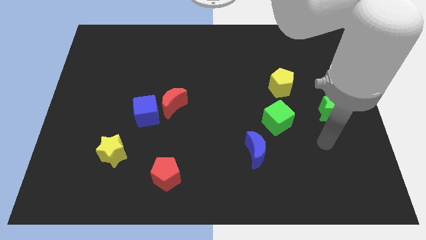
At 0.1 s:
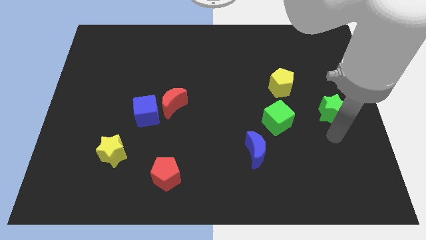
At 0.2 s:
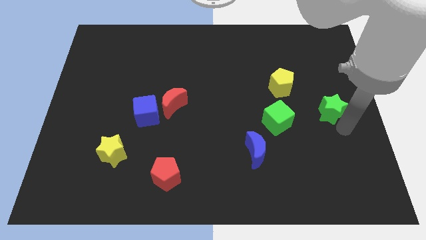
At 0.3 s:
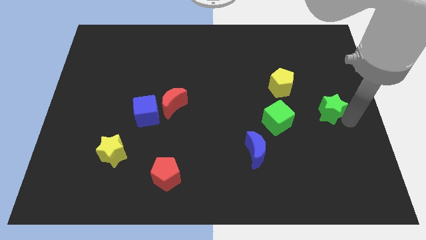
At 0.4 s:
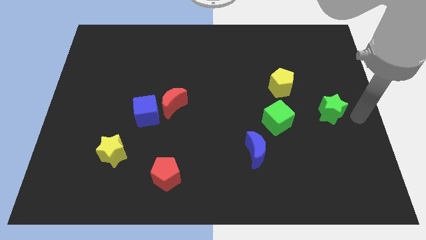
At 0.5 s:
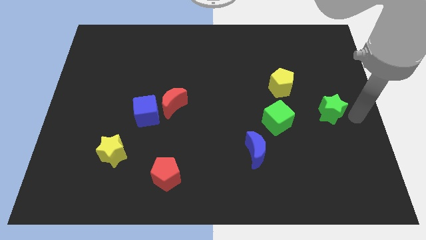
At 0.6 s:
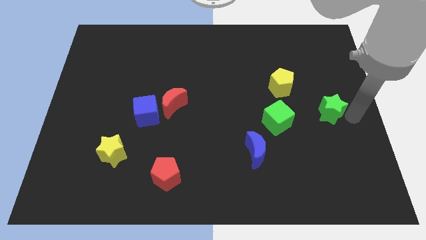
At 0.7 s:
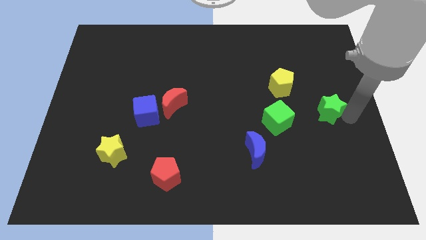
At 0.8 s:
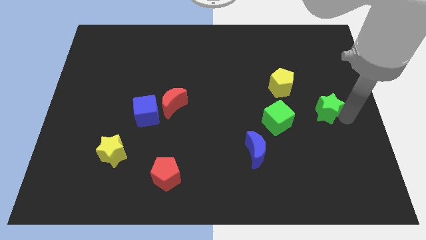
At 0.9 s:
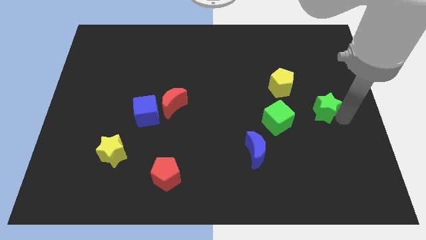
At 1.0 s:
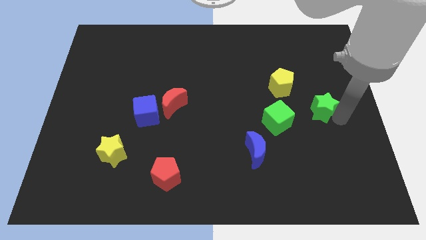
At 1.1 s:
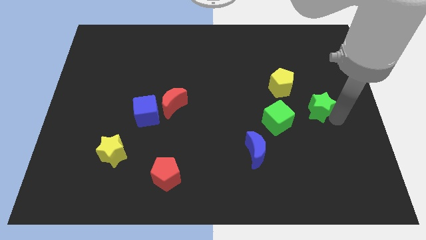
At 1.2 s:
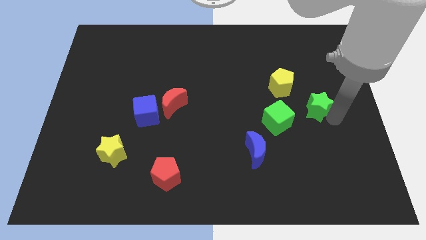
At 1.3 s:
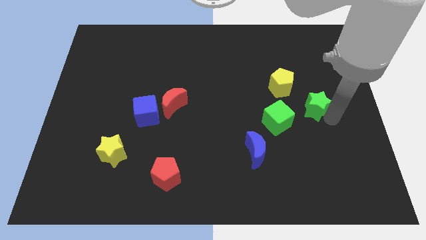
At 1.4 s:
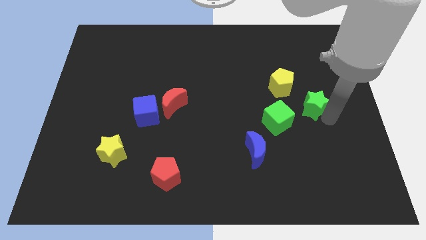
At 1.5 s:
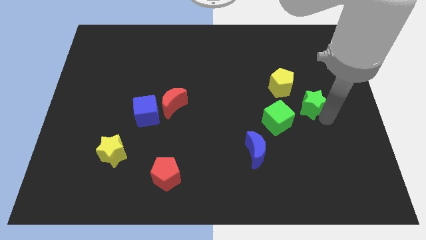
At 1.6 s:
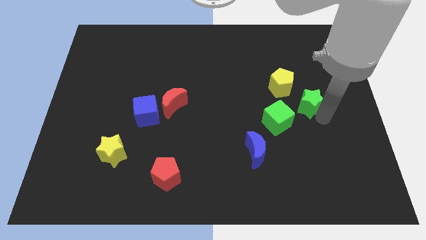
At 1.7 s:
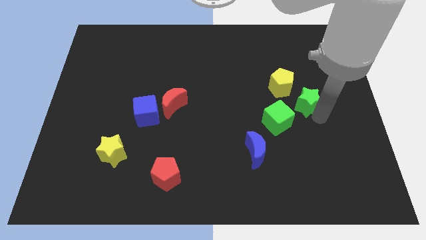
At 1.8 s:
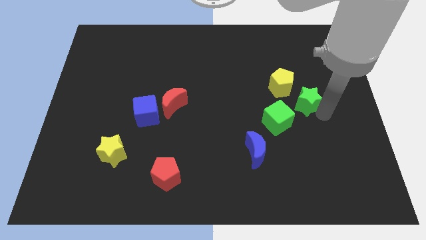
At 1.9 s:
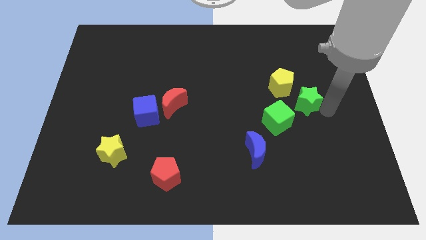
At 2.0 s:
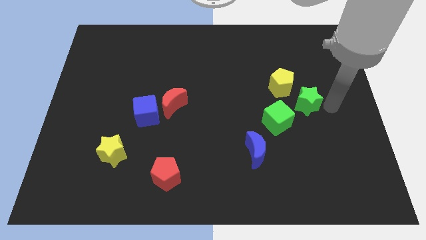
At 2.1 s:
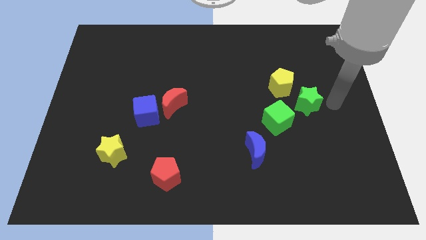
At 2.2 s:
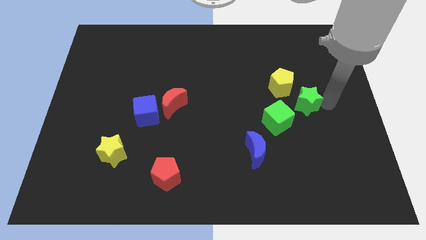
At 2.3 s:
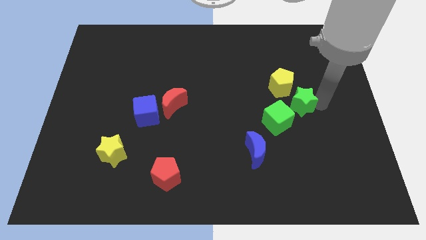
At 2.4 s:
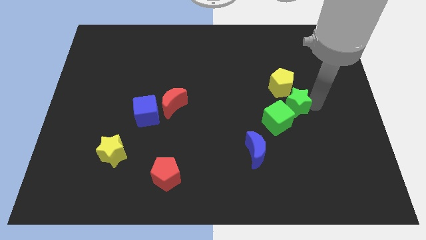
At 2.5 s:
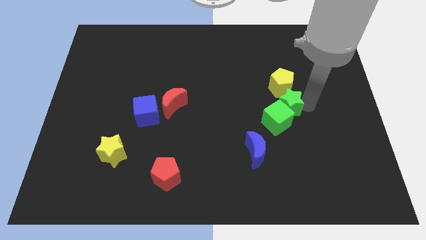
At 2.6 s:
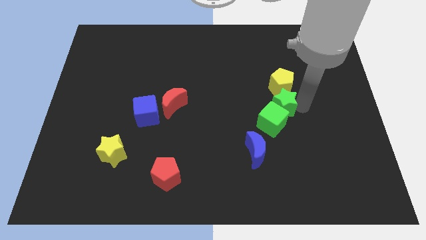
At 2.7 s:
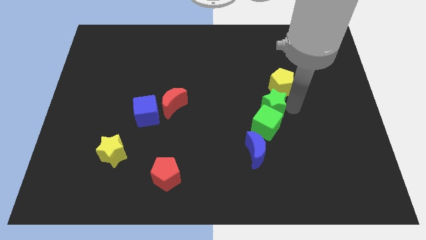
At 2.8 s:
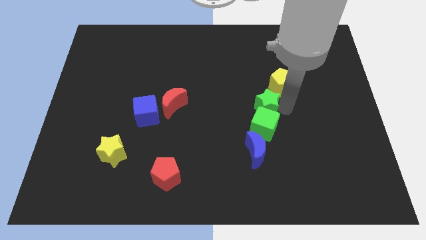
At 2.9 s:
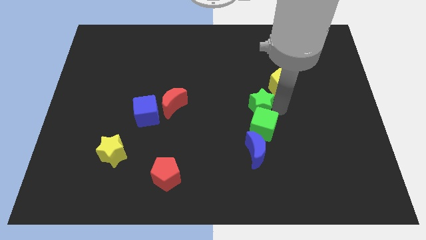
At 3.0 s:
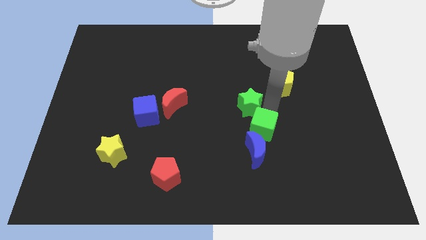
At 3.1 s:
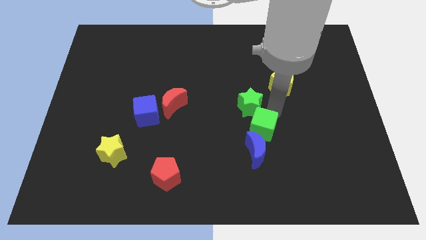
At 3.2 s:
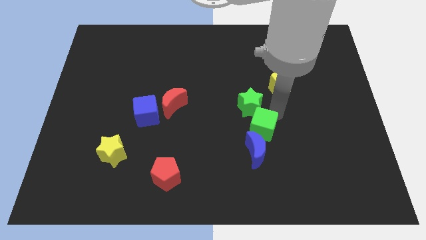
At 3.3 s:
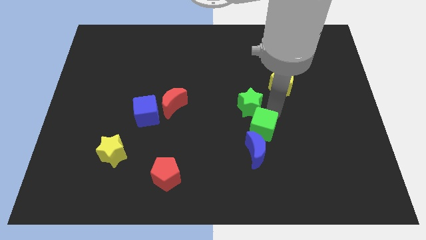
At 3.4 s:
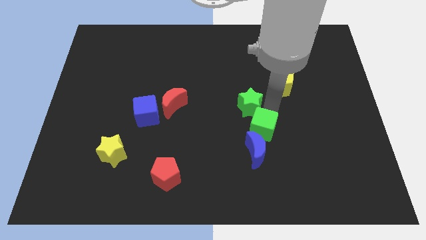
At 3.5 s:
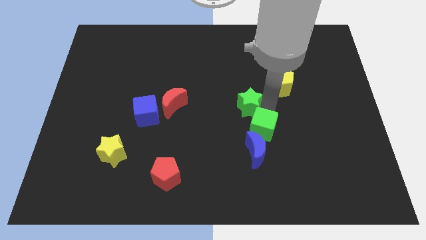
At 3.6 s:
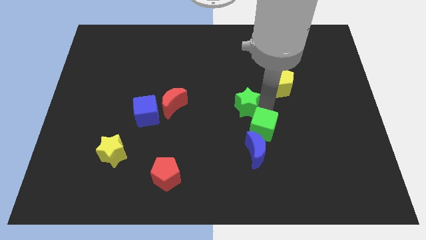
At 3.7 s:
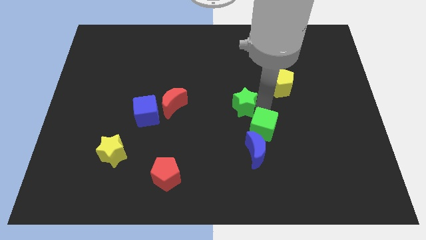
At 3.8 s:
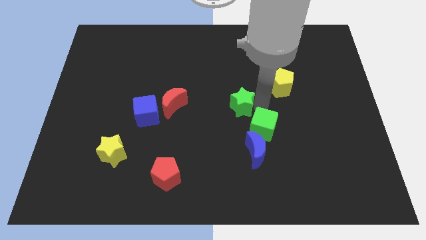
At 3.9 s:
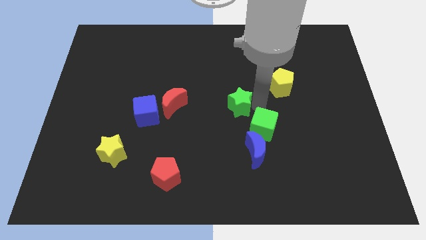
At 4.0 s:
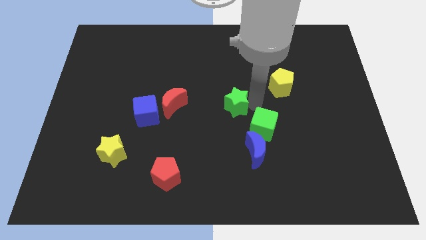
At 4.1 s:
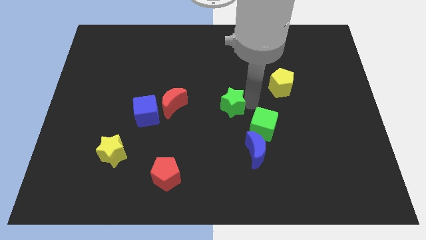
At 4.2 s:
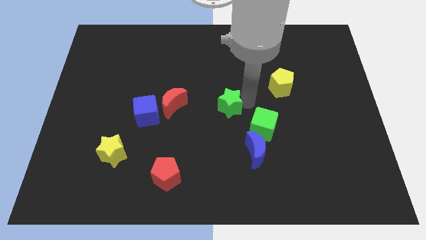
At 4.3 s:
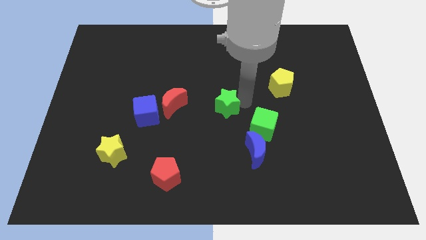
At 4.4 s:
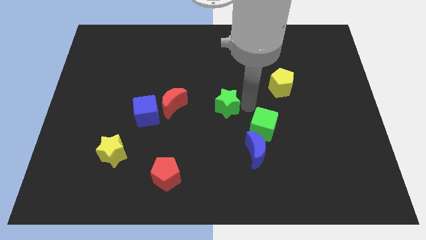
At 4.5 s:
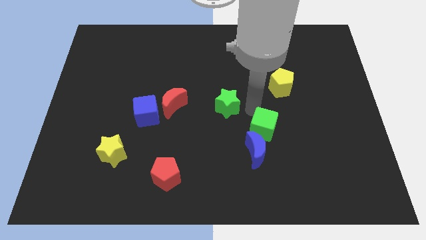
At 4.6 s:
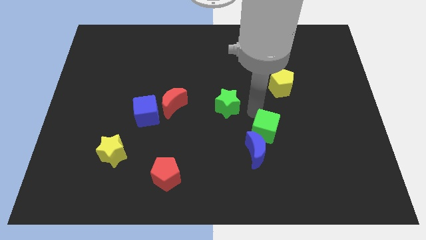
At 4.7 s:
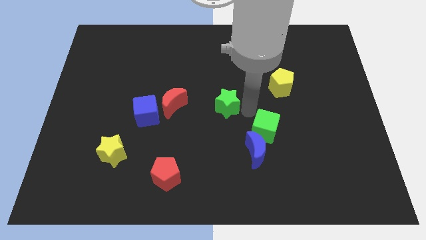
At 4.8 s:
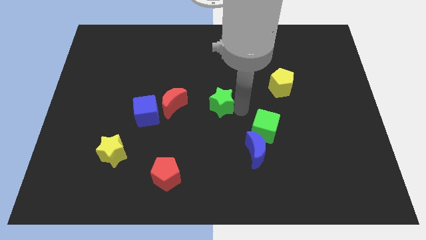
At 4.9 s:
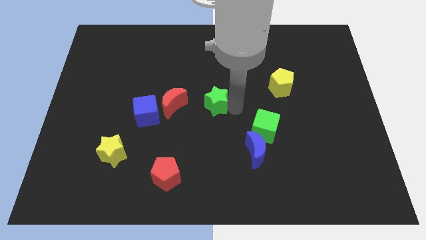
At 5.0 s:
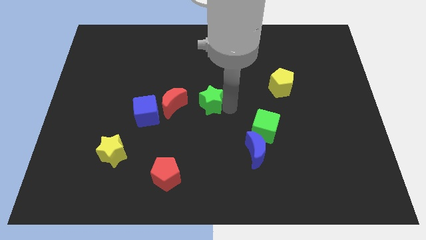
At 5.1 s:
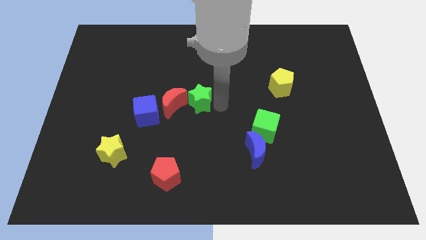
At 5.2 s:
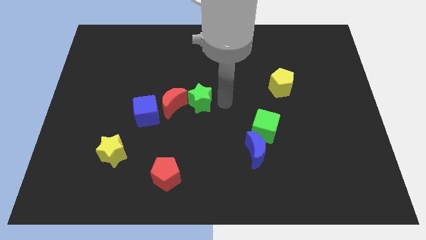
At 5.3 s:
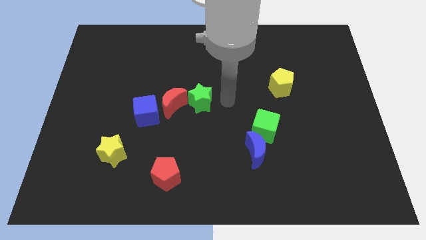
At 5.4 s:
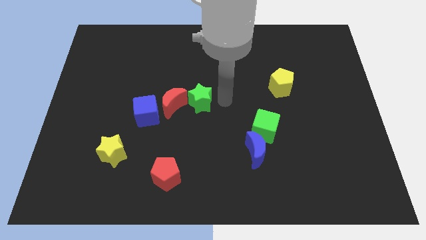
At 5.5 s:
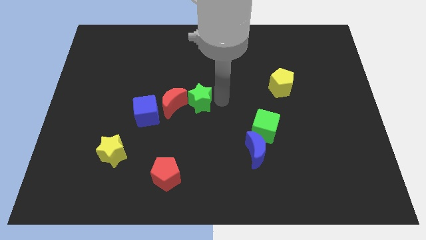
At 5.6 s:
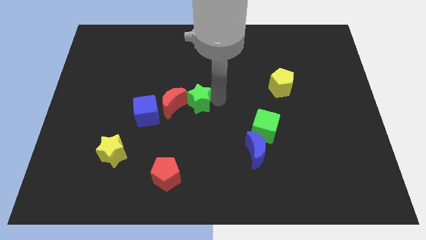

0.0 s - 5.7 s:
push the green star next to the red moon

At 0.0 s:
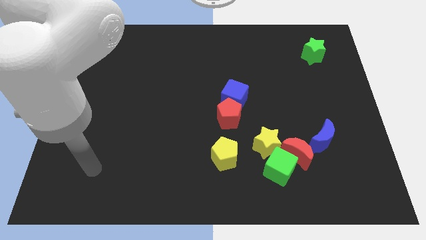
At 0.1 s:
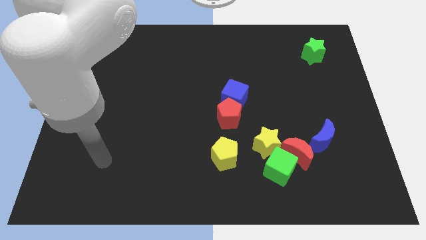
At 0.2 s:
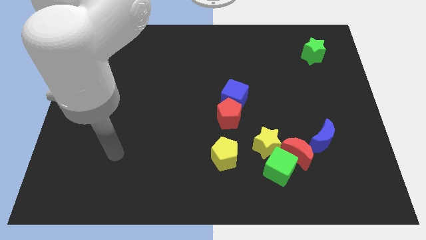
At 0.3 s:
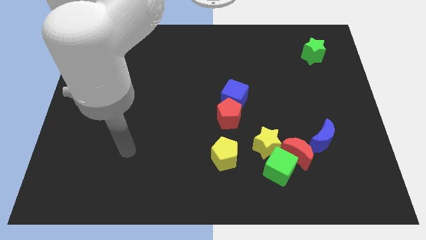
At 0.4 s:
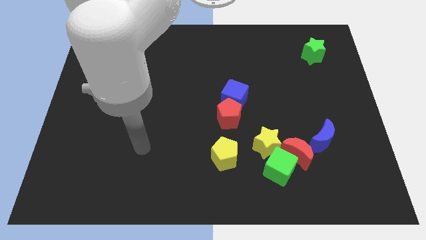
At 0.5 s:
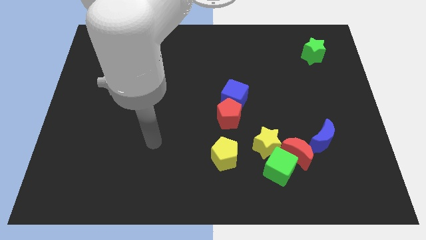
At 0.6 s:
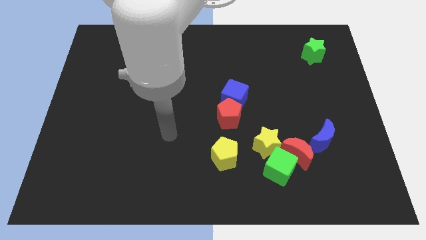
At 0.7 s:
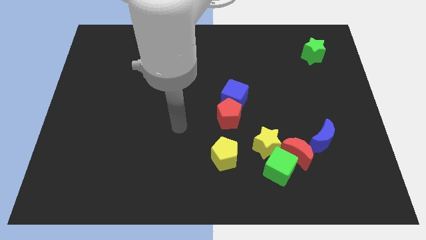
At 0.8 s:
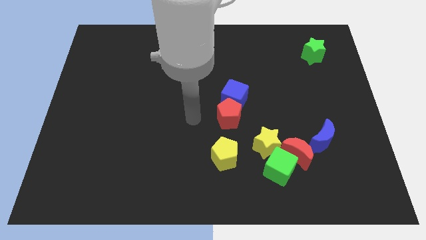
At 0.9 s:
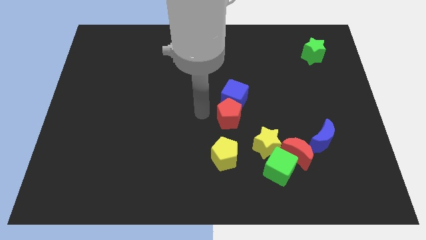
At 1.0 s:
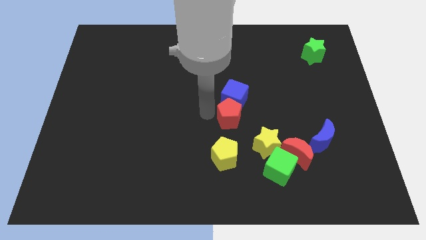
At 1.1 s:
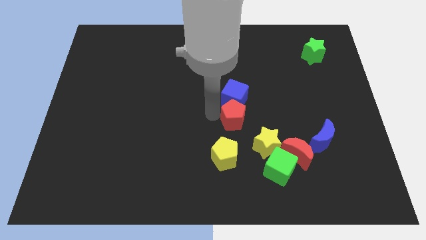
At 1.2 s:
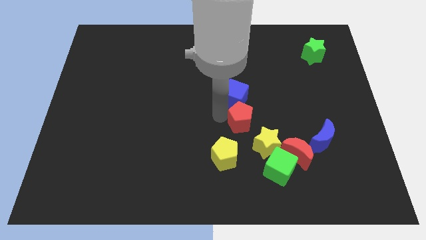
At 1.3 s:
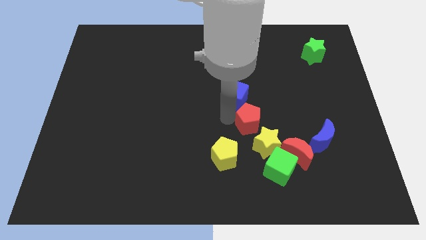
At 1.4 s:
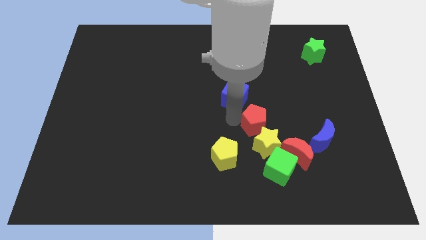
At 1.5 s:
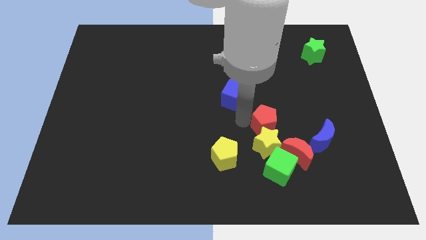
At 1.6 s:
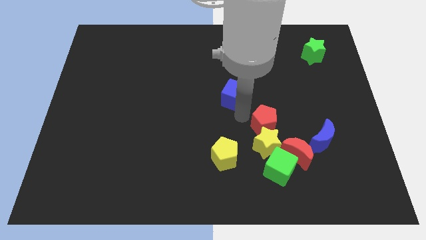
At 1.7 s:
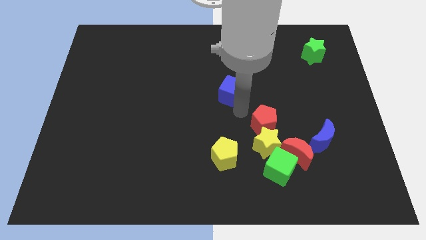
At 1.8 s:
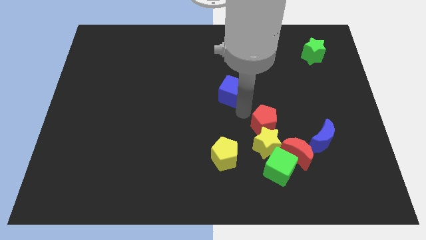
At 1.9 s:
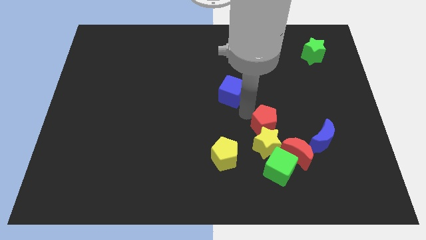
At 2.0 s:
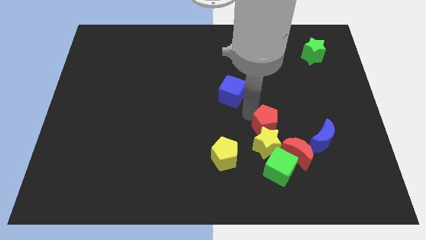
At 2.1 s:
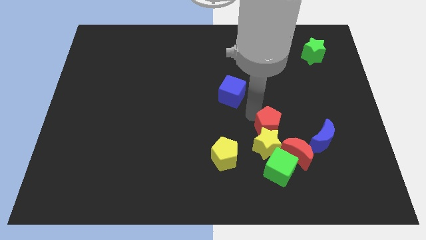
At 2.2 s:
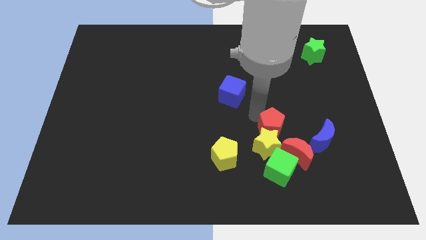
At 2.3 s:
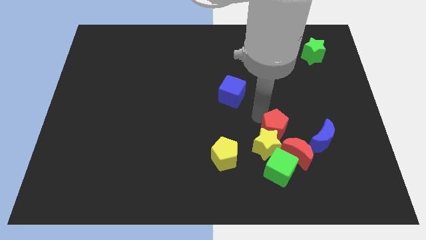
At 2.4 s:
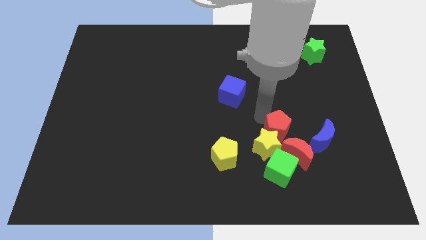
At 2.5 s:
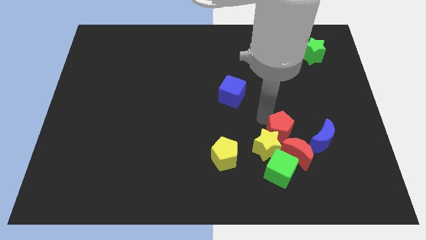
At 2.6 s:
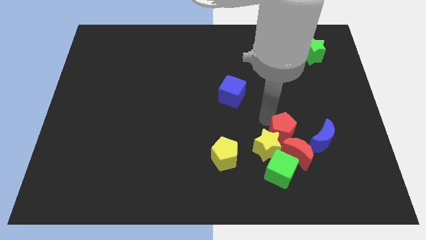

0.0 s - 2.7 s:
slide the red pentagon next to the red moon
